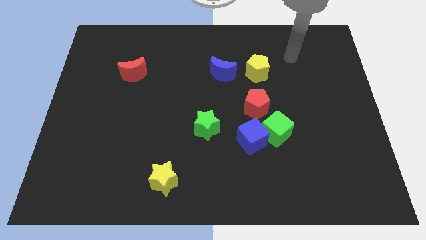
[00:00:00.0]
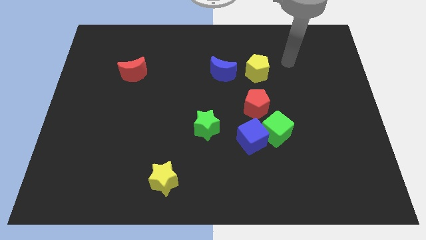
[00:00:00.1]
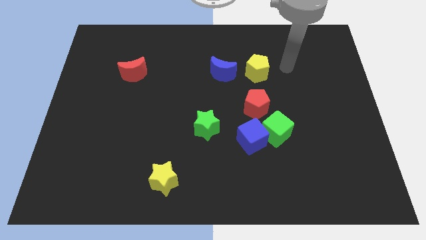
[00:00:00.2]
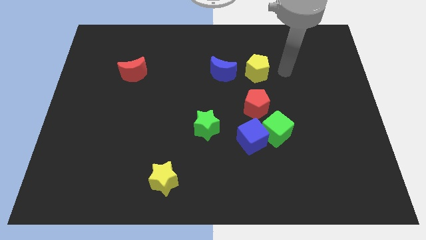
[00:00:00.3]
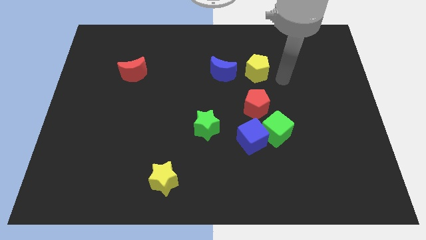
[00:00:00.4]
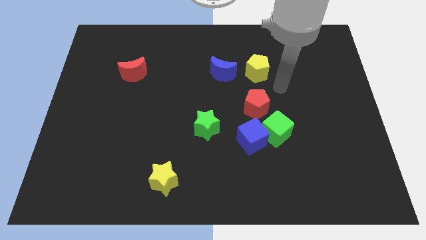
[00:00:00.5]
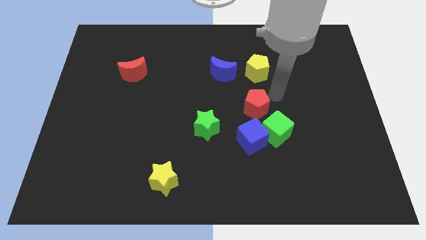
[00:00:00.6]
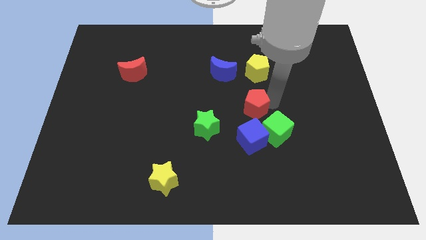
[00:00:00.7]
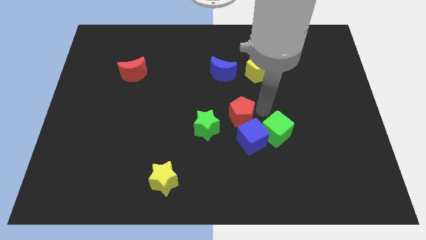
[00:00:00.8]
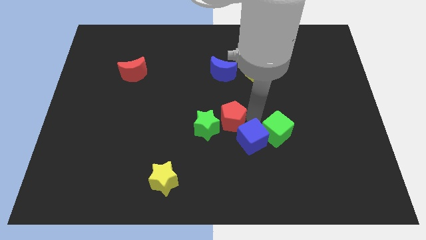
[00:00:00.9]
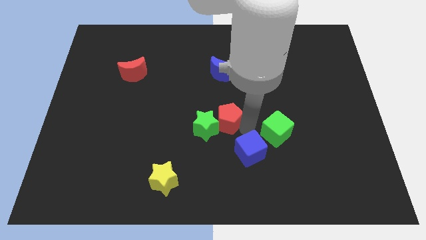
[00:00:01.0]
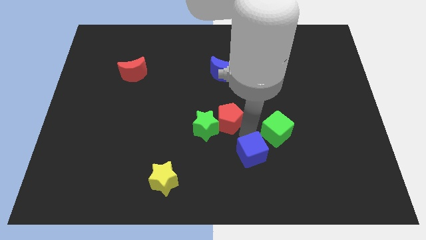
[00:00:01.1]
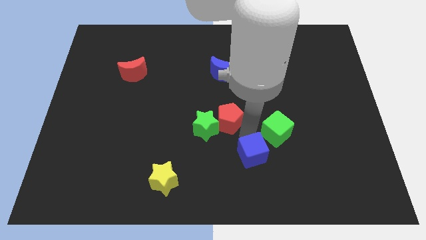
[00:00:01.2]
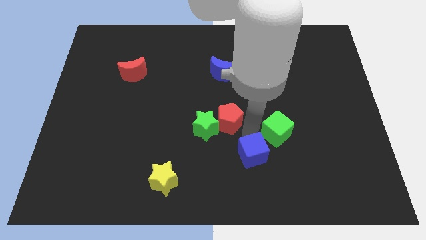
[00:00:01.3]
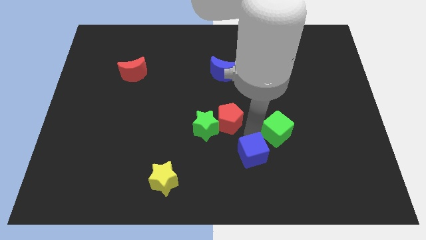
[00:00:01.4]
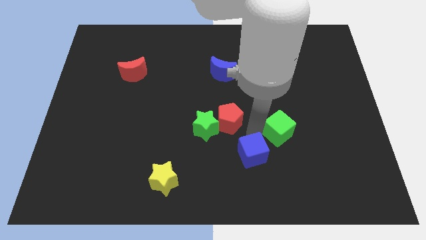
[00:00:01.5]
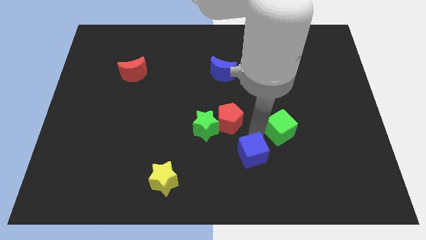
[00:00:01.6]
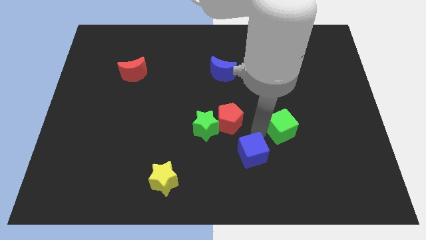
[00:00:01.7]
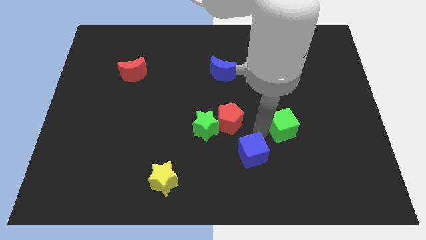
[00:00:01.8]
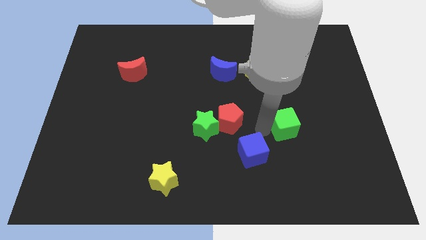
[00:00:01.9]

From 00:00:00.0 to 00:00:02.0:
separate the green cube from the blue cube and red pentagon

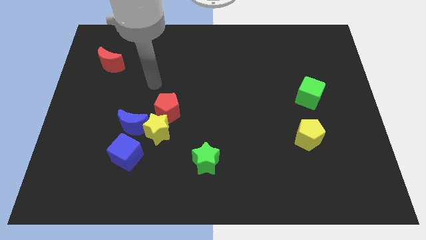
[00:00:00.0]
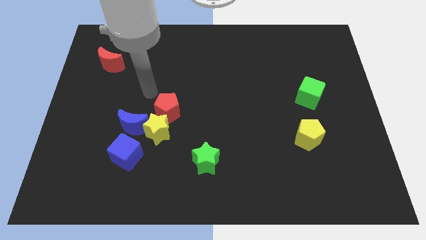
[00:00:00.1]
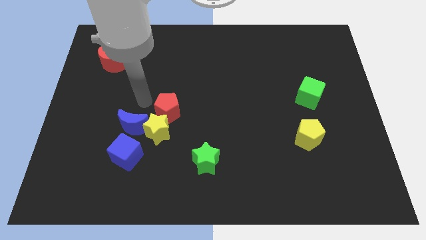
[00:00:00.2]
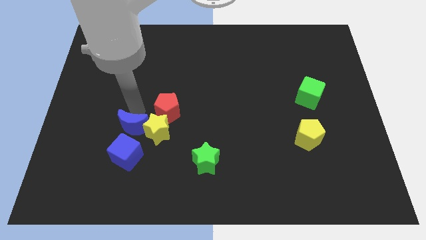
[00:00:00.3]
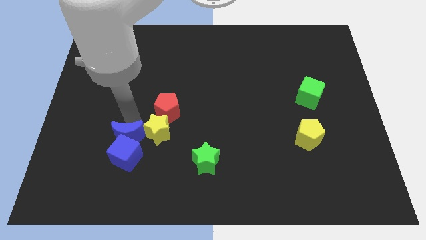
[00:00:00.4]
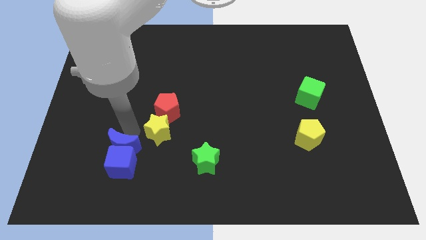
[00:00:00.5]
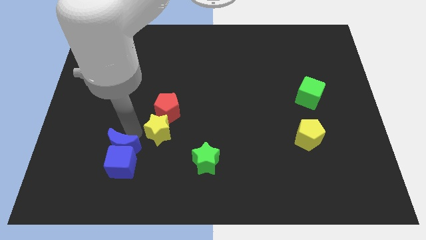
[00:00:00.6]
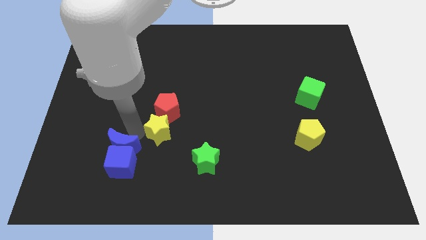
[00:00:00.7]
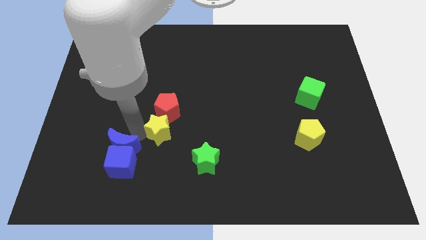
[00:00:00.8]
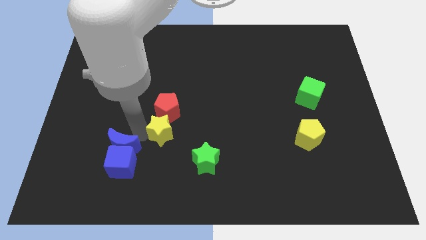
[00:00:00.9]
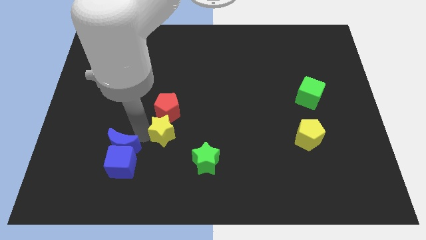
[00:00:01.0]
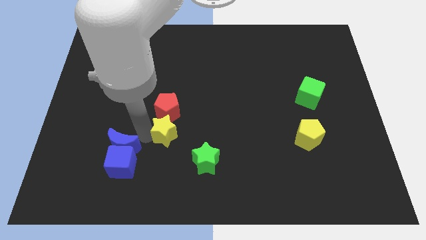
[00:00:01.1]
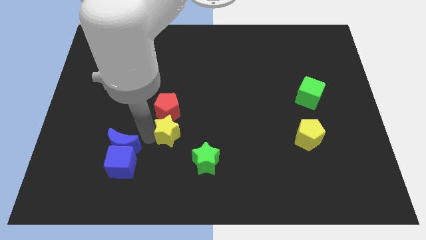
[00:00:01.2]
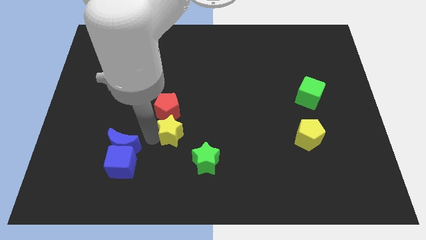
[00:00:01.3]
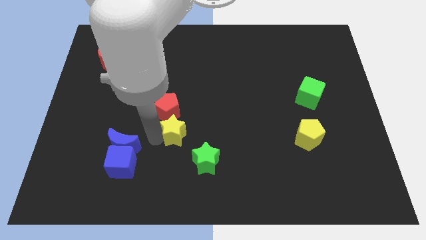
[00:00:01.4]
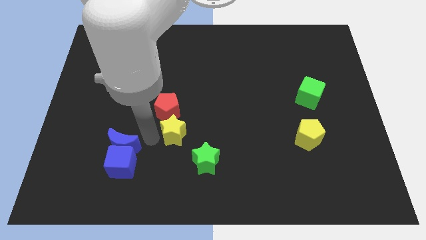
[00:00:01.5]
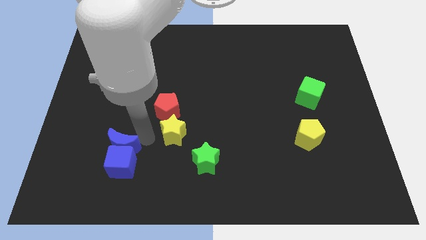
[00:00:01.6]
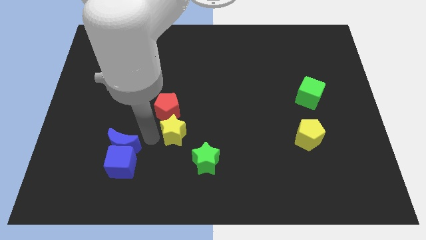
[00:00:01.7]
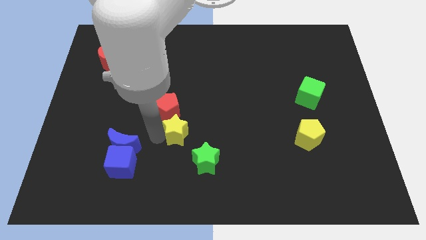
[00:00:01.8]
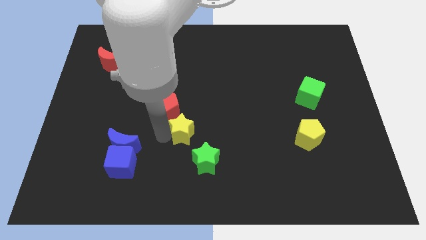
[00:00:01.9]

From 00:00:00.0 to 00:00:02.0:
move the yellow star away from the clump

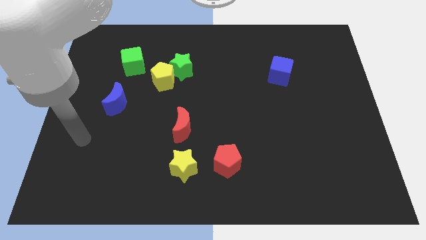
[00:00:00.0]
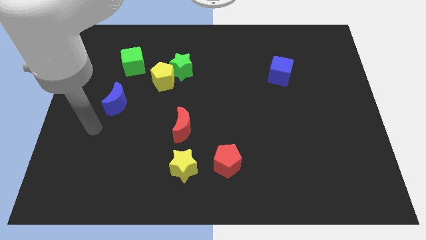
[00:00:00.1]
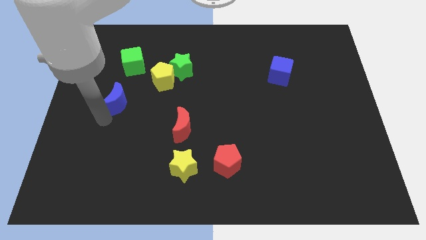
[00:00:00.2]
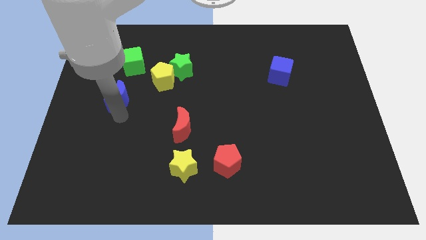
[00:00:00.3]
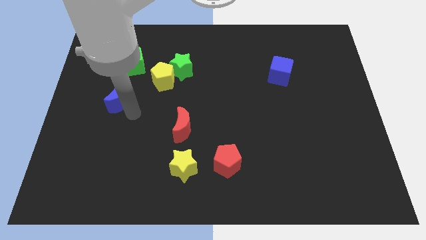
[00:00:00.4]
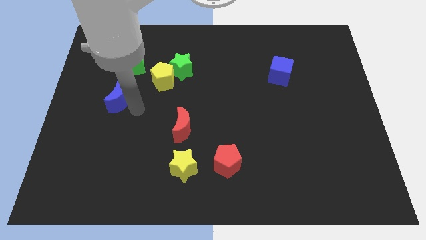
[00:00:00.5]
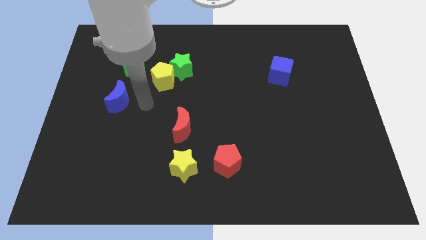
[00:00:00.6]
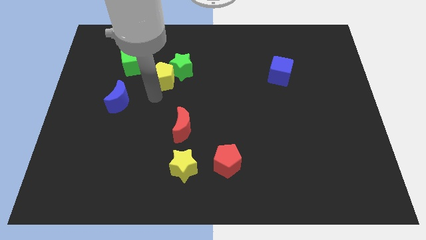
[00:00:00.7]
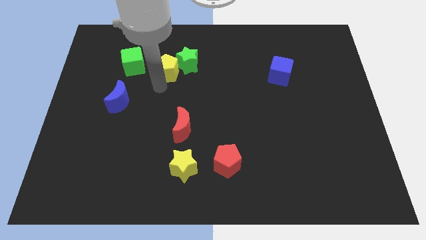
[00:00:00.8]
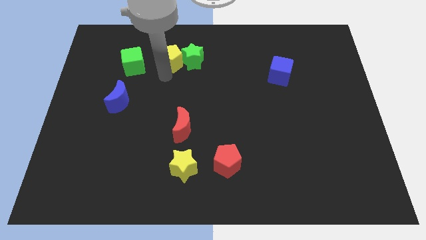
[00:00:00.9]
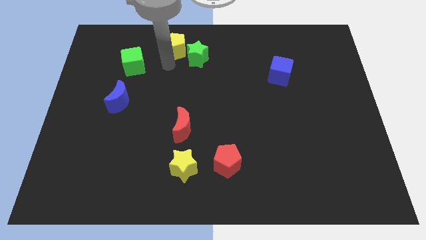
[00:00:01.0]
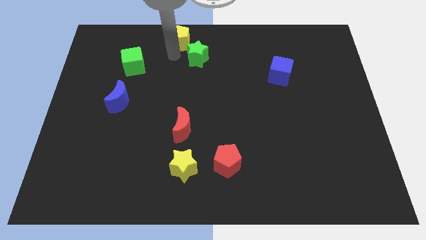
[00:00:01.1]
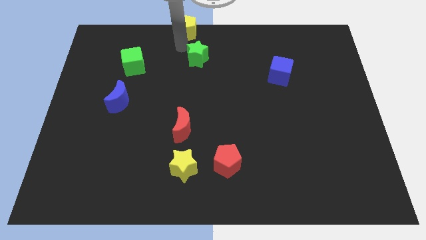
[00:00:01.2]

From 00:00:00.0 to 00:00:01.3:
pull the green star apart from the yellow pentagon

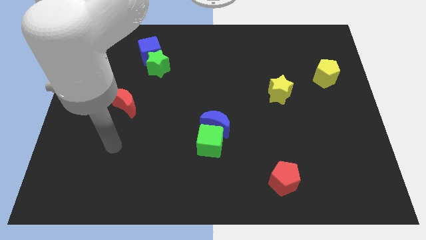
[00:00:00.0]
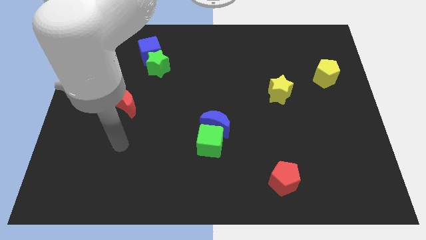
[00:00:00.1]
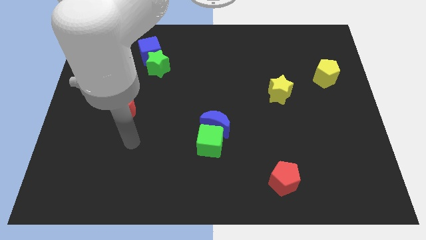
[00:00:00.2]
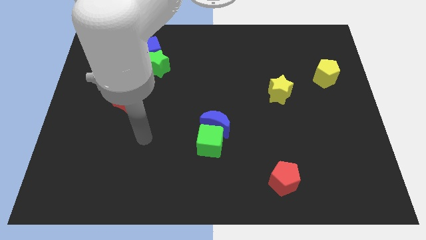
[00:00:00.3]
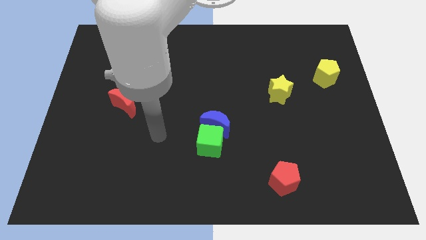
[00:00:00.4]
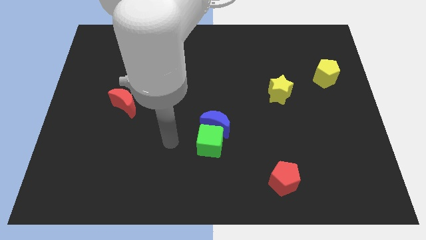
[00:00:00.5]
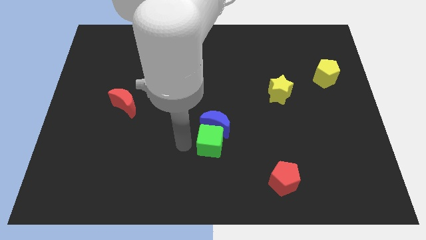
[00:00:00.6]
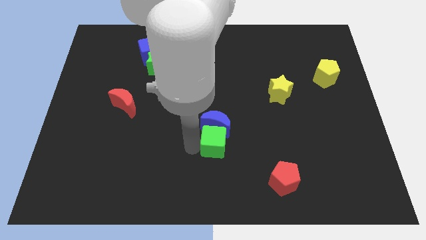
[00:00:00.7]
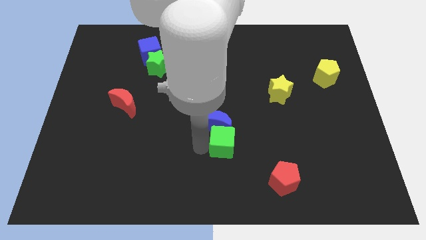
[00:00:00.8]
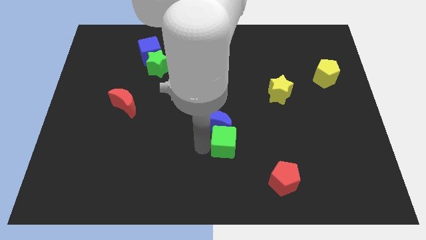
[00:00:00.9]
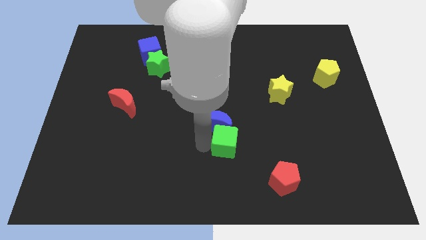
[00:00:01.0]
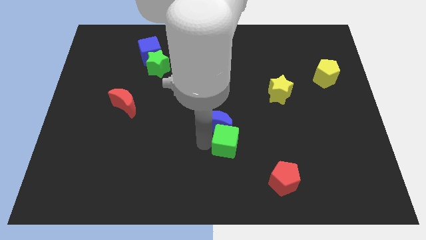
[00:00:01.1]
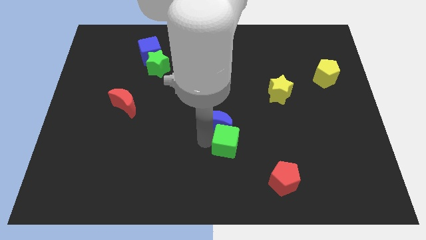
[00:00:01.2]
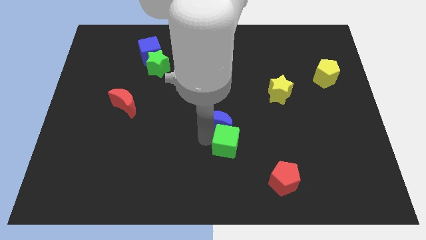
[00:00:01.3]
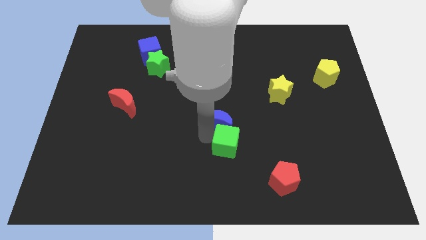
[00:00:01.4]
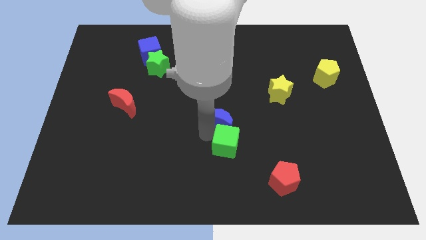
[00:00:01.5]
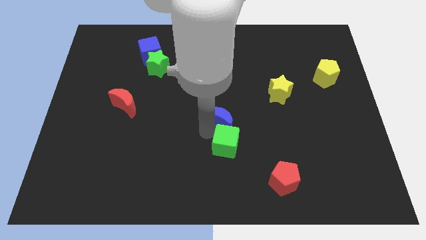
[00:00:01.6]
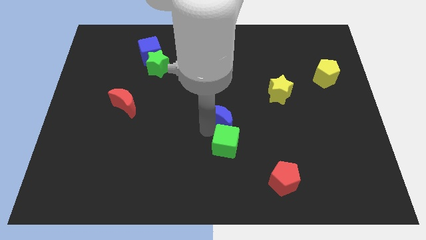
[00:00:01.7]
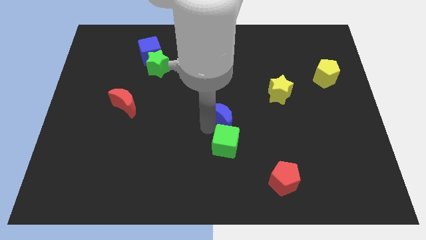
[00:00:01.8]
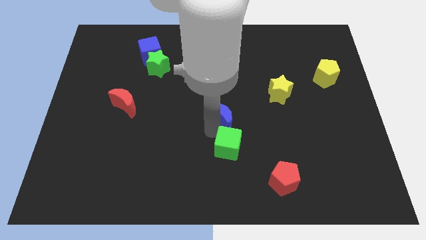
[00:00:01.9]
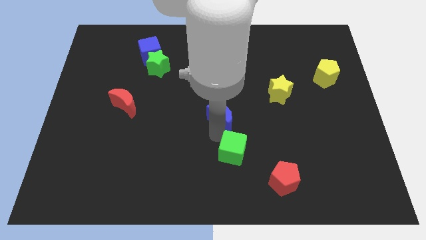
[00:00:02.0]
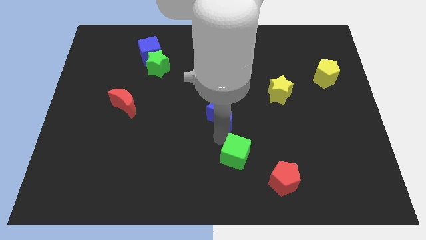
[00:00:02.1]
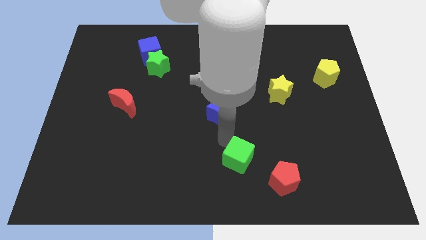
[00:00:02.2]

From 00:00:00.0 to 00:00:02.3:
separate the blue moon from the green cube

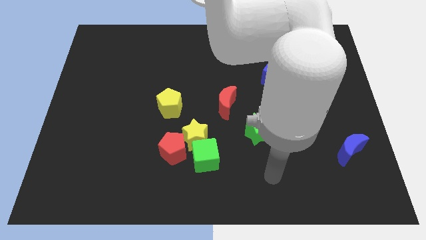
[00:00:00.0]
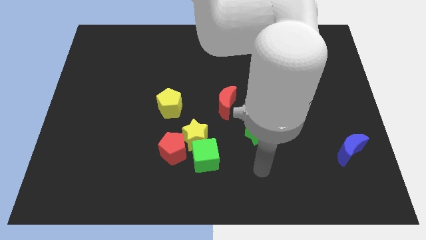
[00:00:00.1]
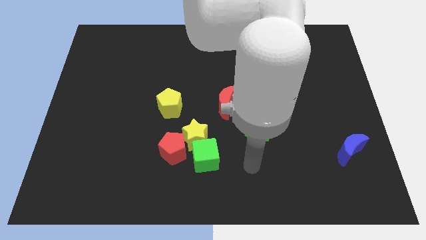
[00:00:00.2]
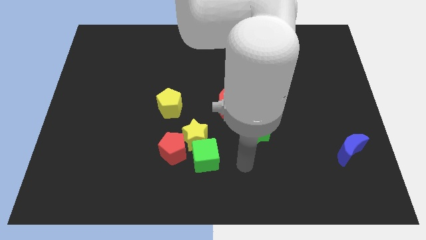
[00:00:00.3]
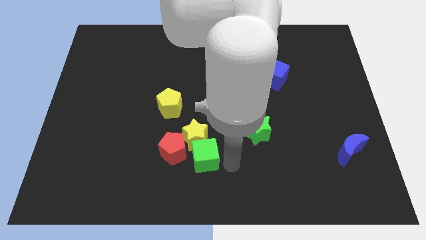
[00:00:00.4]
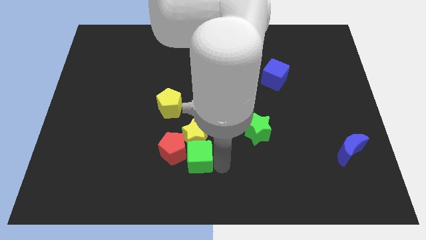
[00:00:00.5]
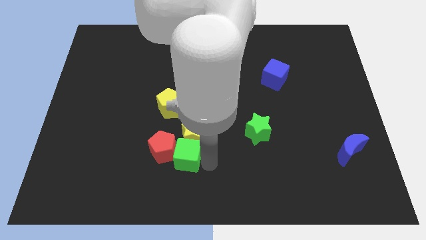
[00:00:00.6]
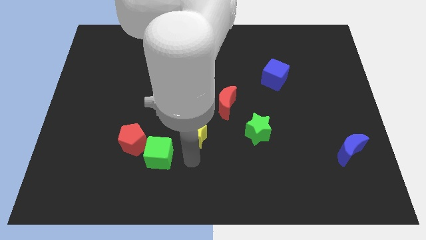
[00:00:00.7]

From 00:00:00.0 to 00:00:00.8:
separate the yellow star from the red pentagon and green cube

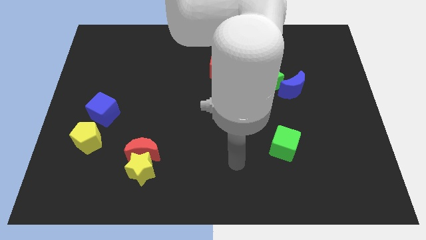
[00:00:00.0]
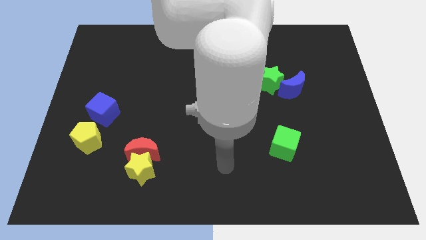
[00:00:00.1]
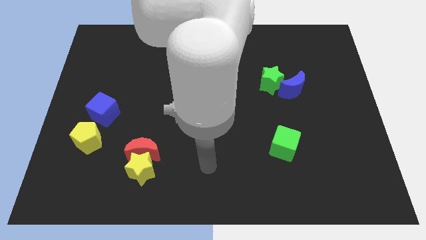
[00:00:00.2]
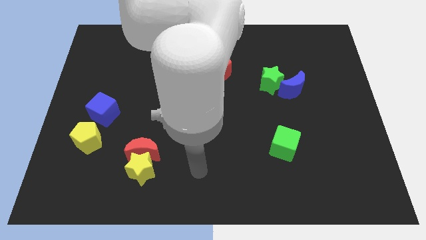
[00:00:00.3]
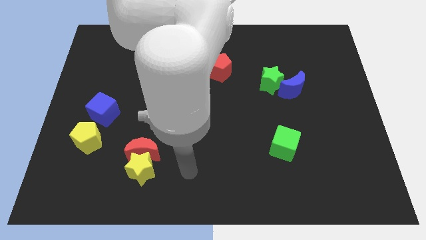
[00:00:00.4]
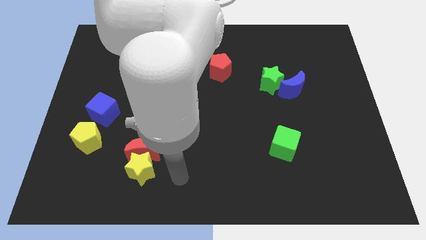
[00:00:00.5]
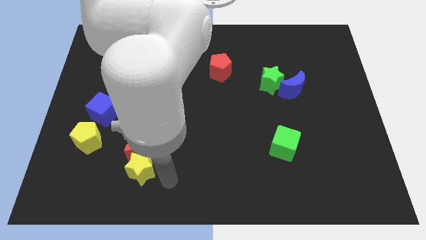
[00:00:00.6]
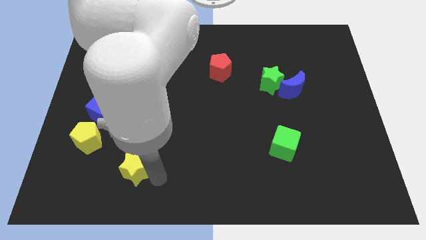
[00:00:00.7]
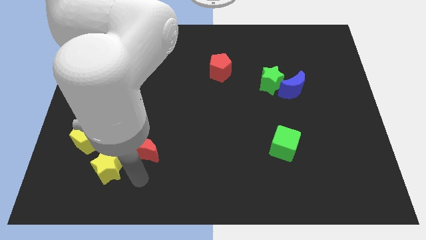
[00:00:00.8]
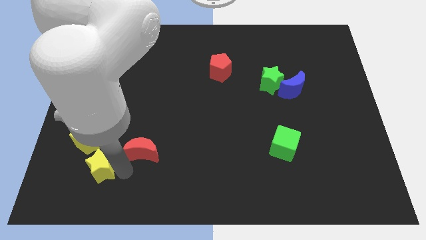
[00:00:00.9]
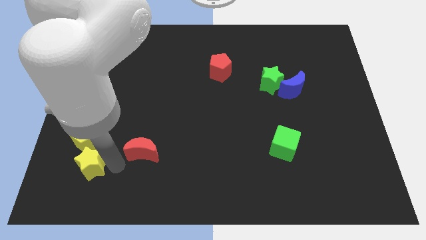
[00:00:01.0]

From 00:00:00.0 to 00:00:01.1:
separate the red moon from the yellow star
